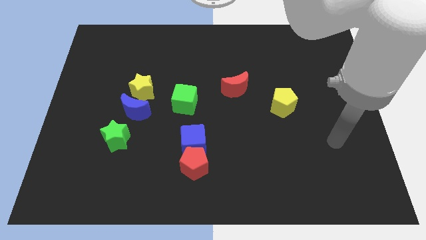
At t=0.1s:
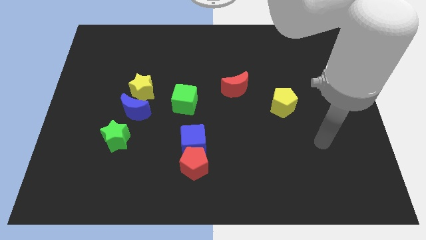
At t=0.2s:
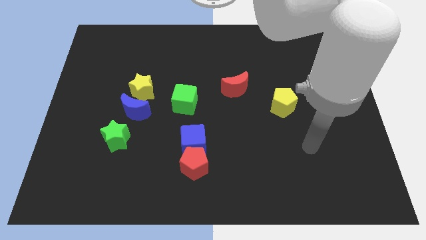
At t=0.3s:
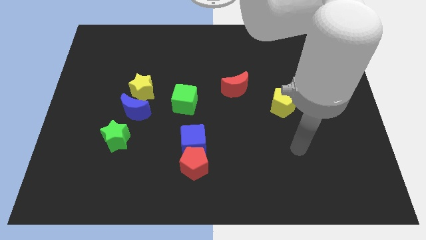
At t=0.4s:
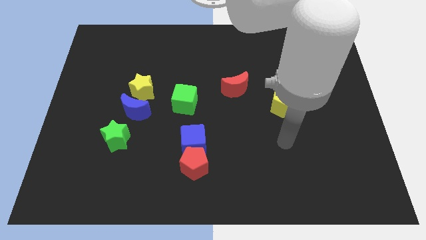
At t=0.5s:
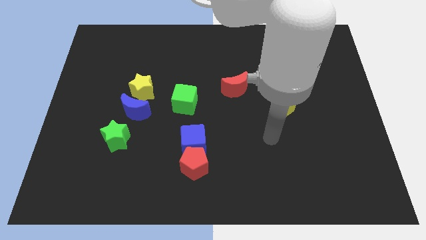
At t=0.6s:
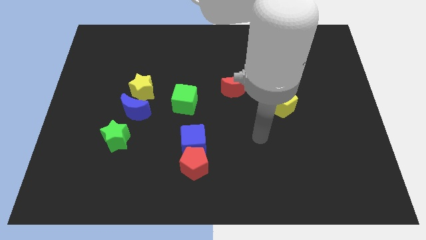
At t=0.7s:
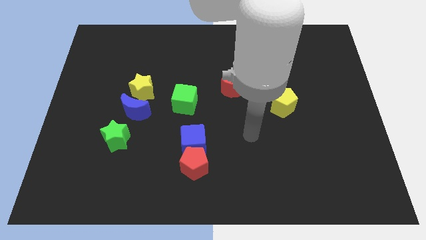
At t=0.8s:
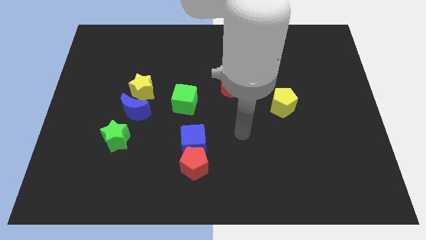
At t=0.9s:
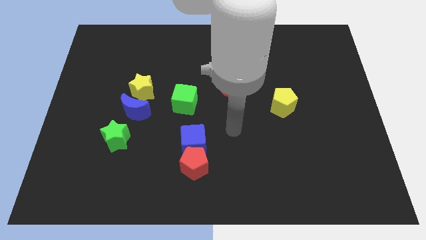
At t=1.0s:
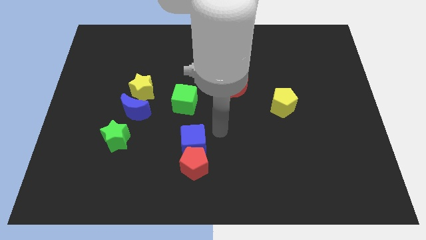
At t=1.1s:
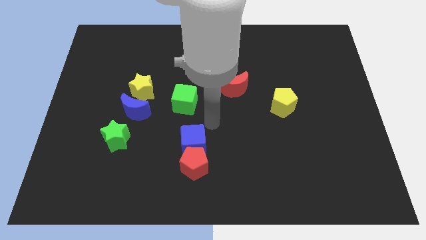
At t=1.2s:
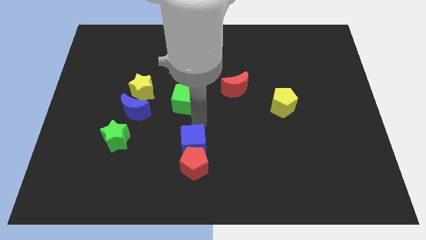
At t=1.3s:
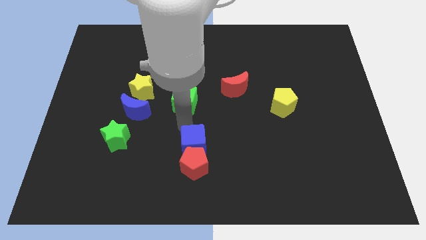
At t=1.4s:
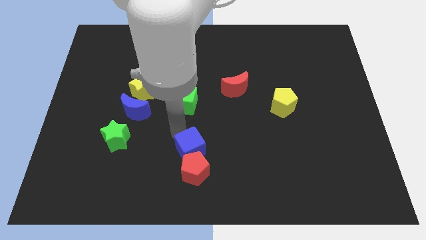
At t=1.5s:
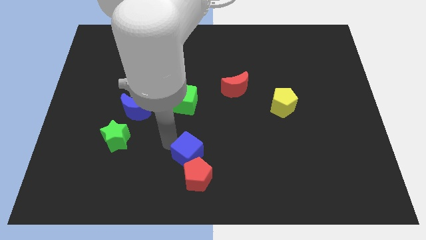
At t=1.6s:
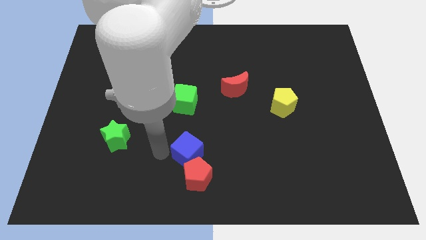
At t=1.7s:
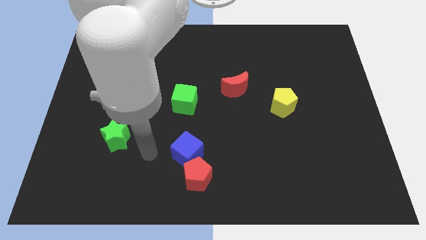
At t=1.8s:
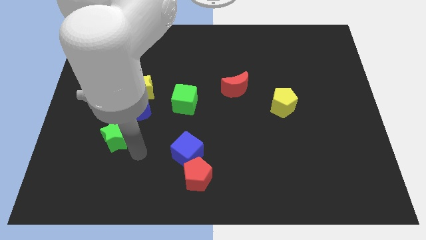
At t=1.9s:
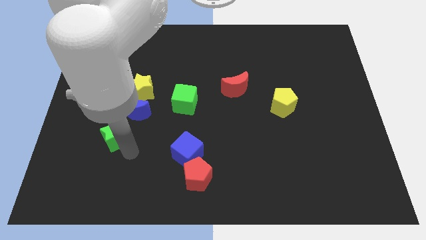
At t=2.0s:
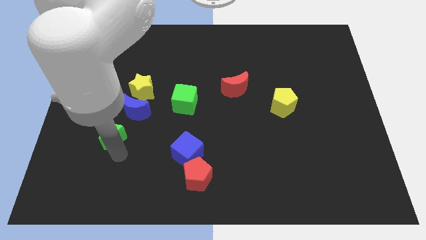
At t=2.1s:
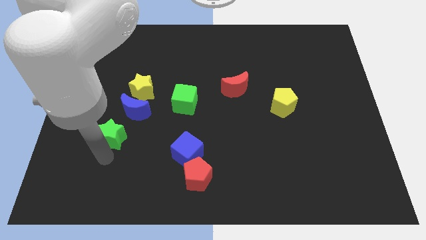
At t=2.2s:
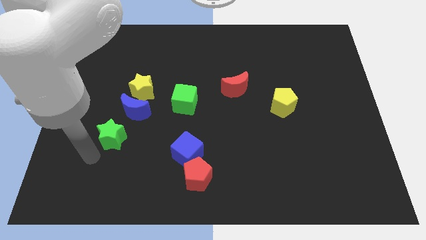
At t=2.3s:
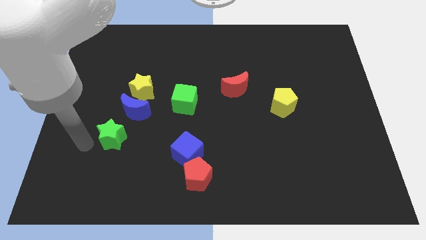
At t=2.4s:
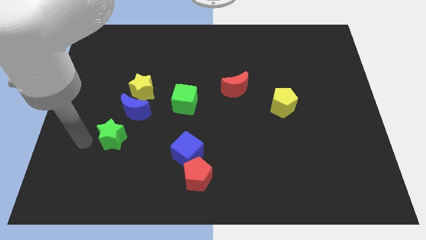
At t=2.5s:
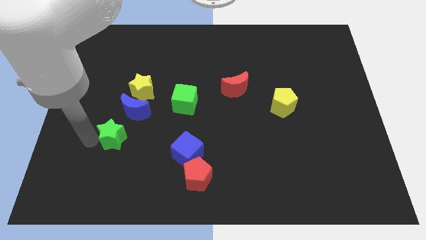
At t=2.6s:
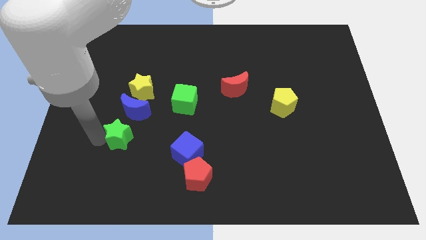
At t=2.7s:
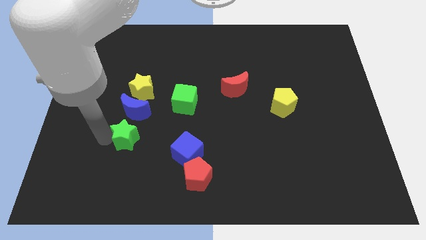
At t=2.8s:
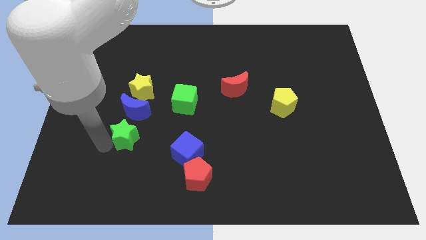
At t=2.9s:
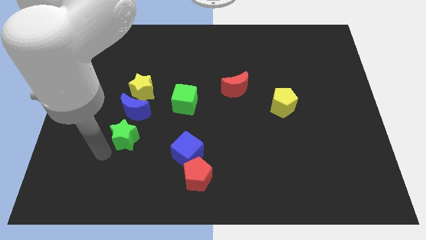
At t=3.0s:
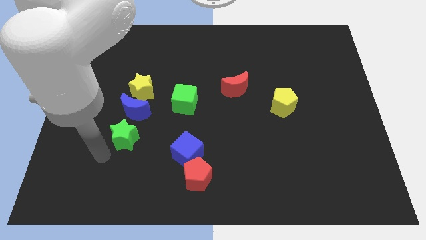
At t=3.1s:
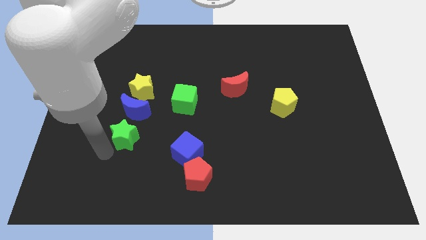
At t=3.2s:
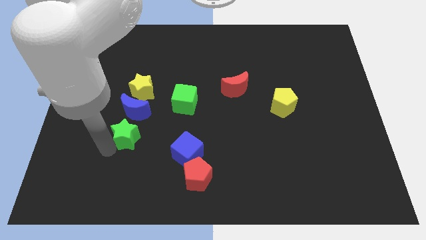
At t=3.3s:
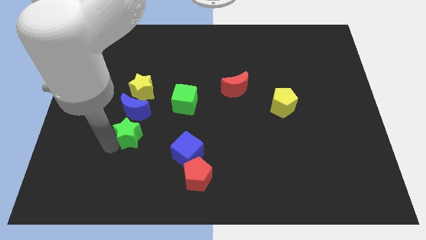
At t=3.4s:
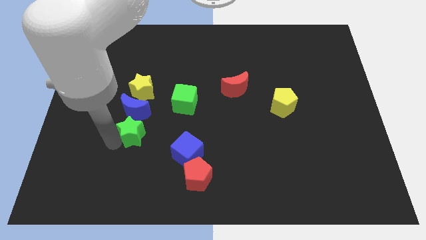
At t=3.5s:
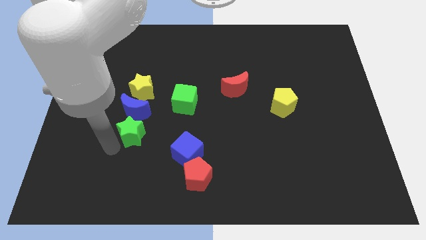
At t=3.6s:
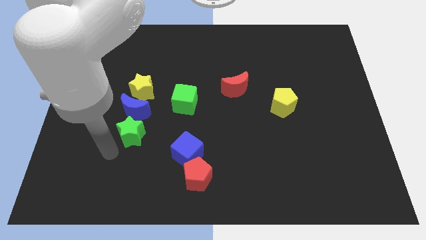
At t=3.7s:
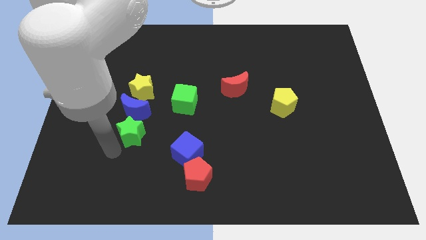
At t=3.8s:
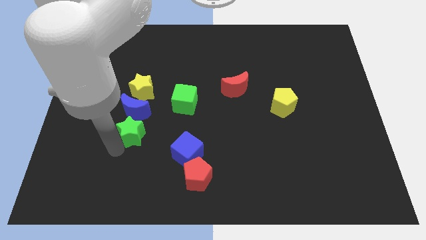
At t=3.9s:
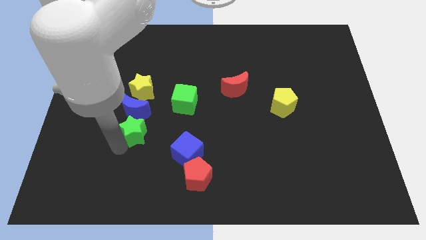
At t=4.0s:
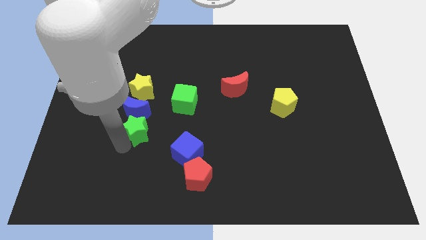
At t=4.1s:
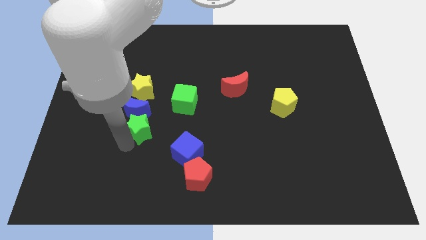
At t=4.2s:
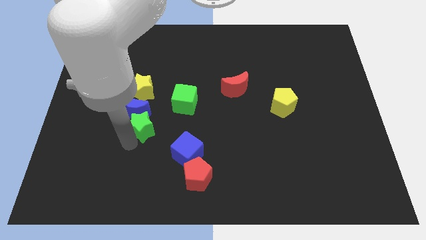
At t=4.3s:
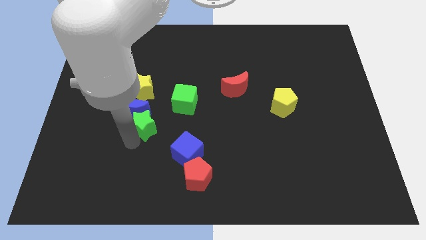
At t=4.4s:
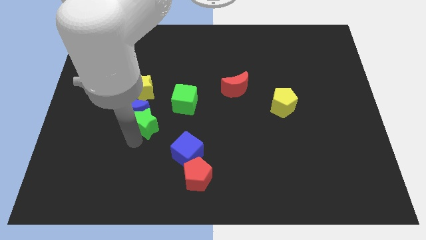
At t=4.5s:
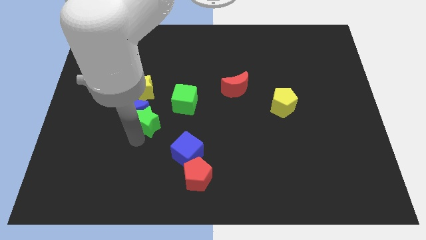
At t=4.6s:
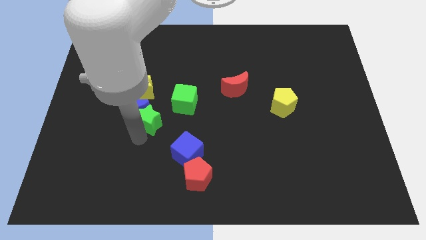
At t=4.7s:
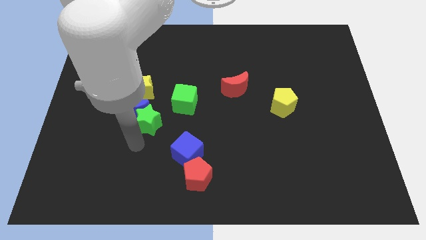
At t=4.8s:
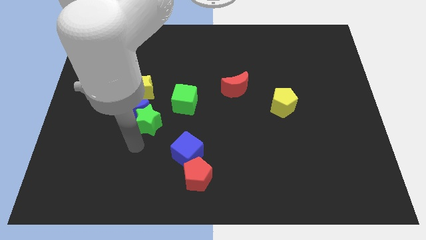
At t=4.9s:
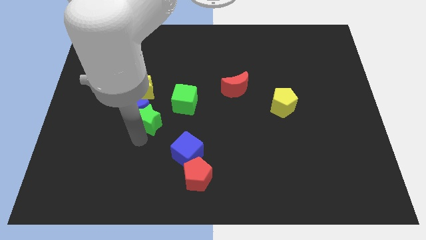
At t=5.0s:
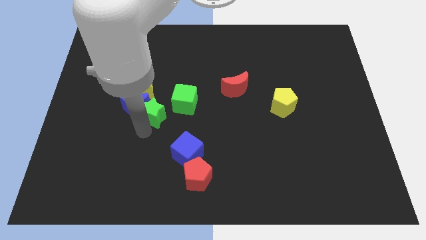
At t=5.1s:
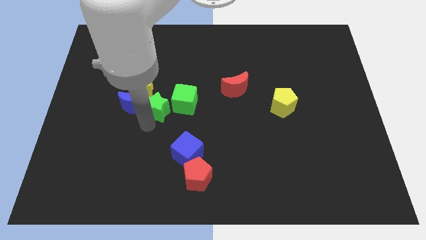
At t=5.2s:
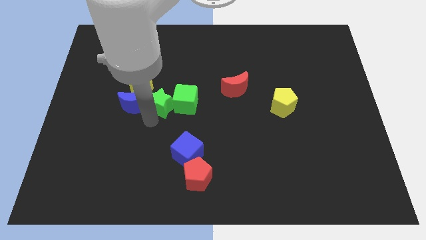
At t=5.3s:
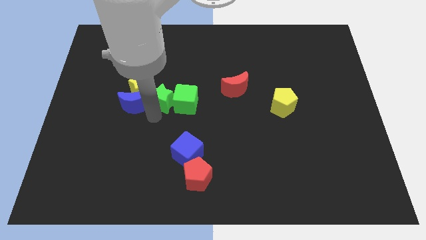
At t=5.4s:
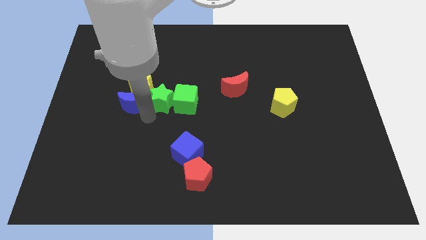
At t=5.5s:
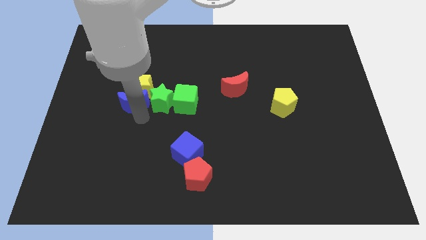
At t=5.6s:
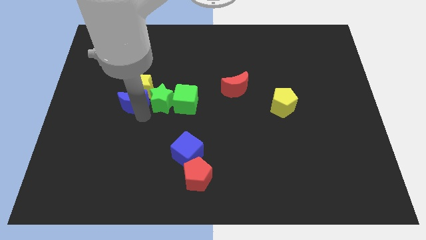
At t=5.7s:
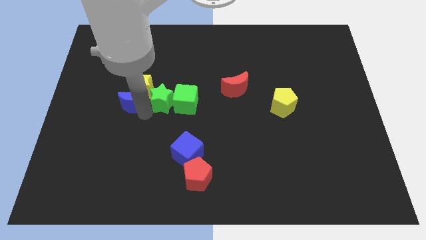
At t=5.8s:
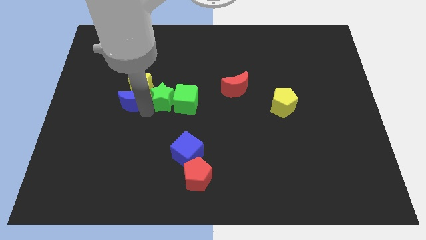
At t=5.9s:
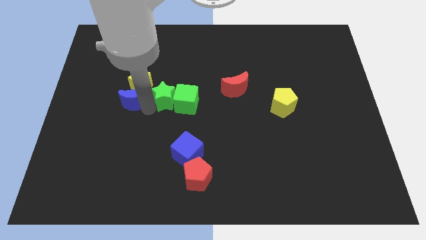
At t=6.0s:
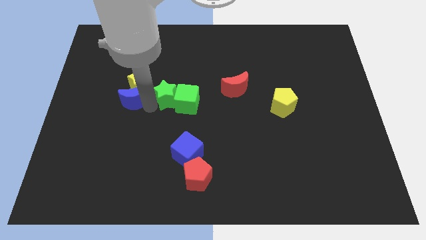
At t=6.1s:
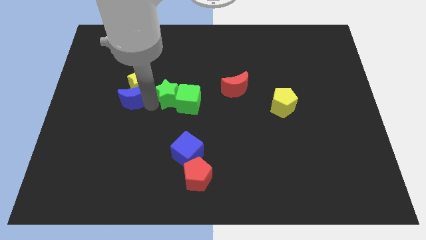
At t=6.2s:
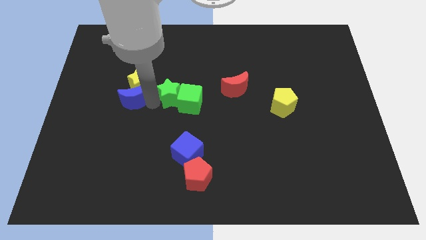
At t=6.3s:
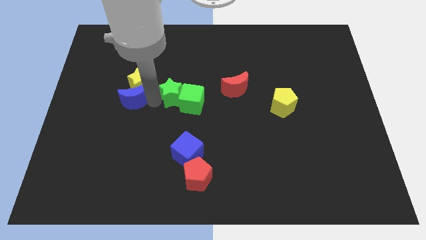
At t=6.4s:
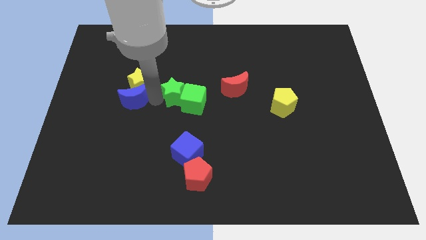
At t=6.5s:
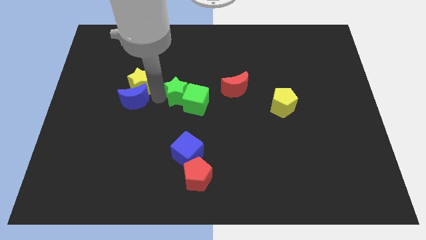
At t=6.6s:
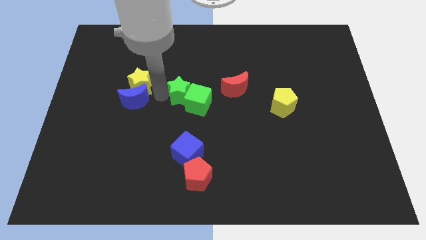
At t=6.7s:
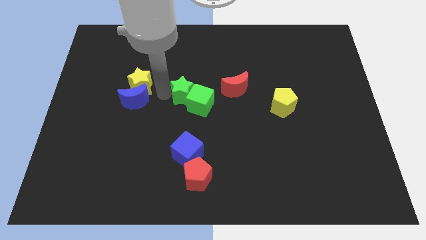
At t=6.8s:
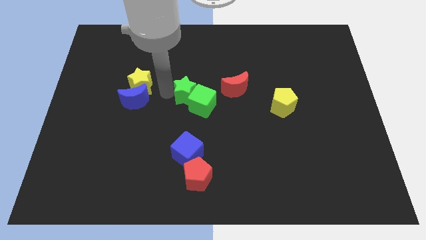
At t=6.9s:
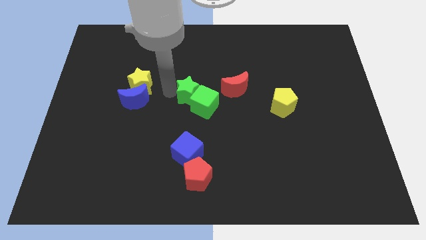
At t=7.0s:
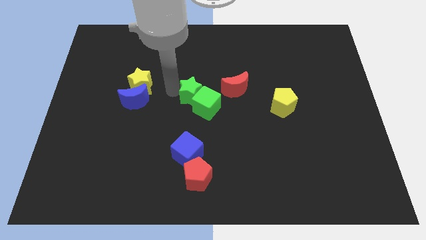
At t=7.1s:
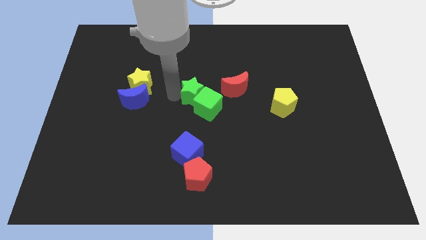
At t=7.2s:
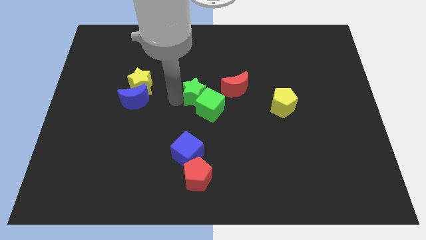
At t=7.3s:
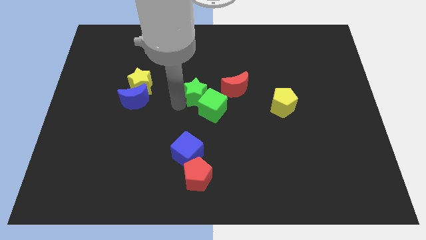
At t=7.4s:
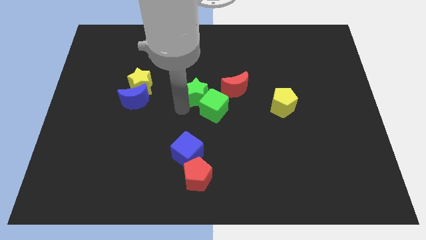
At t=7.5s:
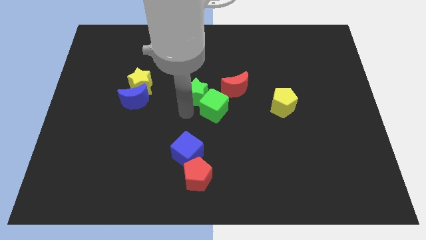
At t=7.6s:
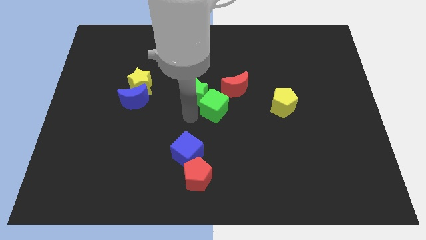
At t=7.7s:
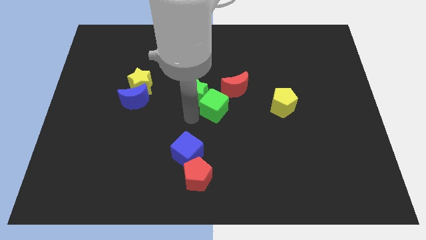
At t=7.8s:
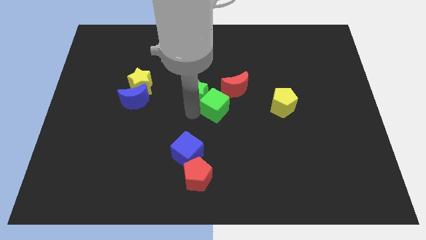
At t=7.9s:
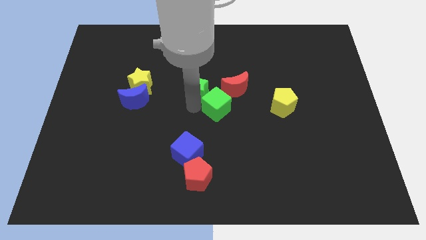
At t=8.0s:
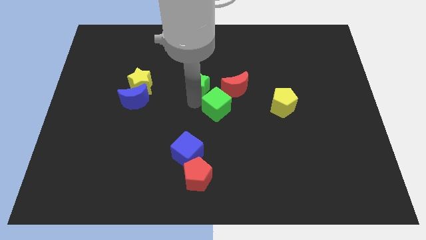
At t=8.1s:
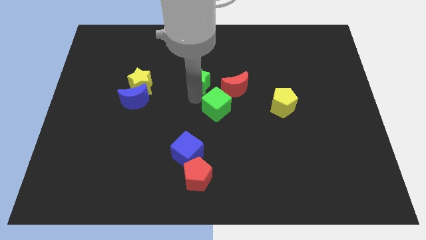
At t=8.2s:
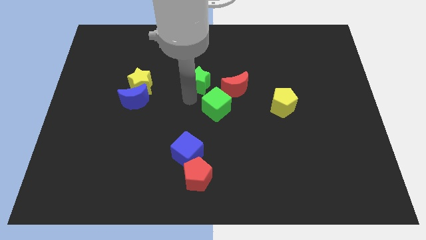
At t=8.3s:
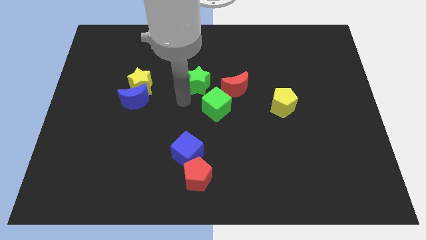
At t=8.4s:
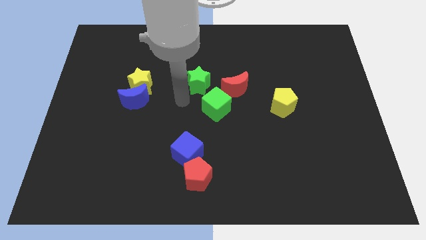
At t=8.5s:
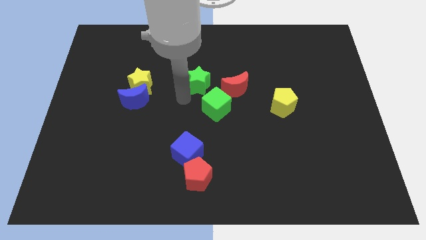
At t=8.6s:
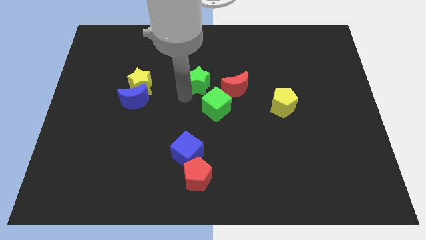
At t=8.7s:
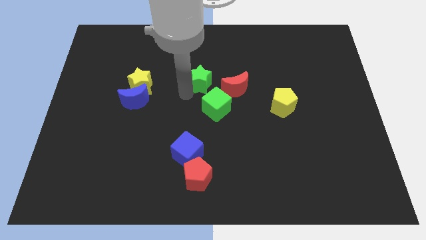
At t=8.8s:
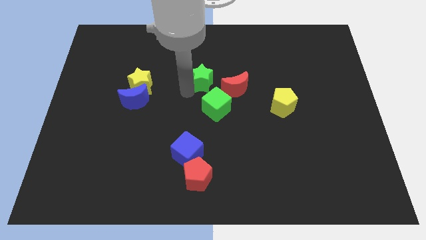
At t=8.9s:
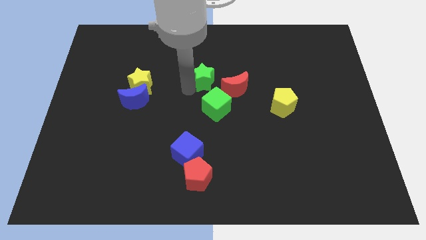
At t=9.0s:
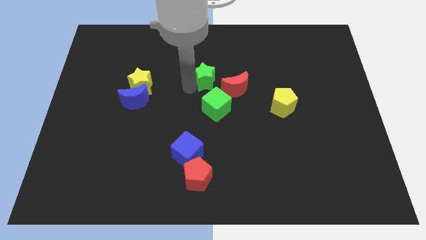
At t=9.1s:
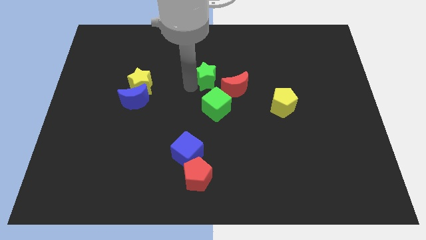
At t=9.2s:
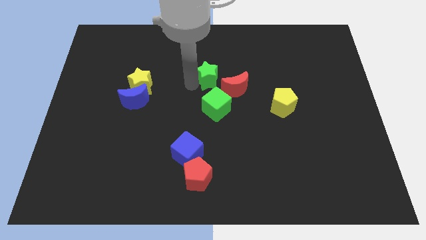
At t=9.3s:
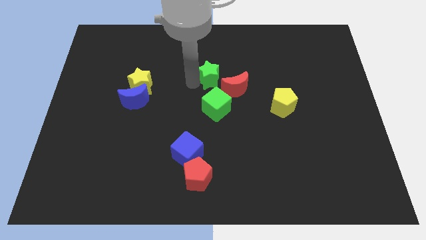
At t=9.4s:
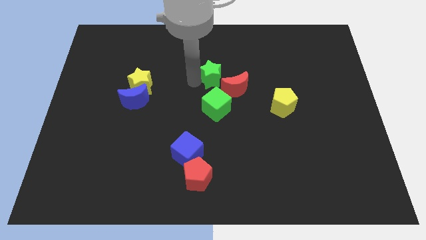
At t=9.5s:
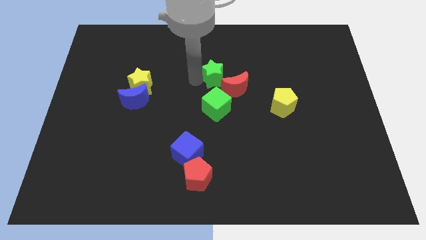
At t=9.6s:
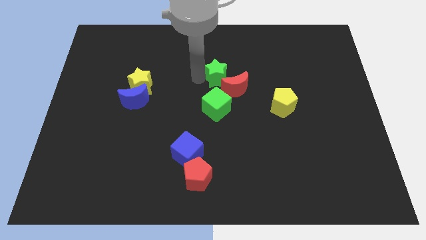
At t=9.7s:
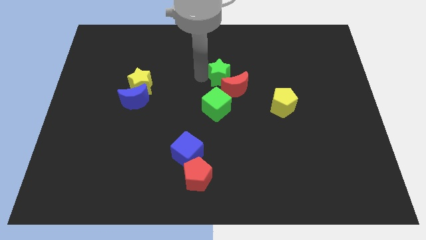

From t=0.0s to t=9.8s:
move the green star above the red moon
